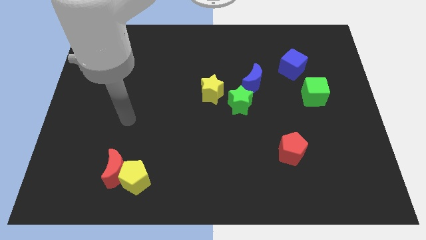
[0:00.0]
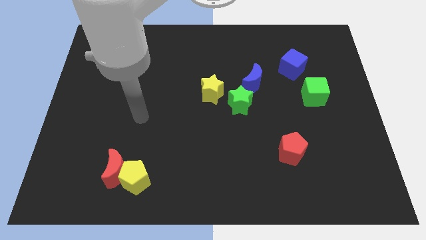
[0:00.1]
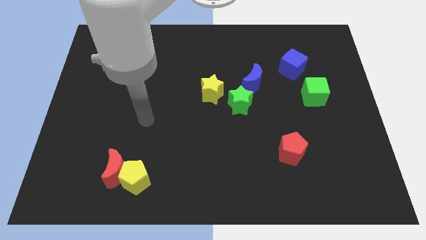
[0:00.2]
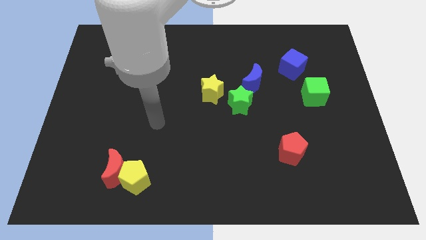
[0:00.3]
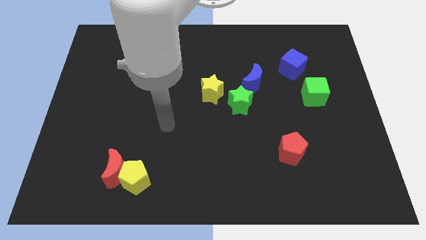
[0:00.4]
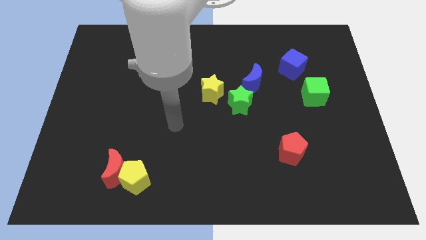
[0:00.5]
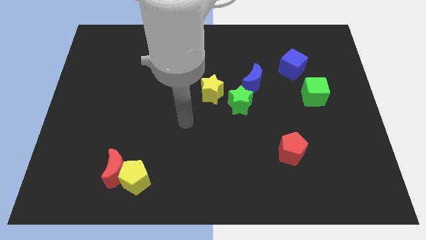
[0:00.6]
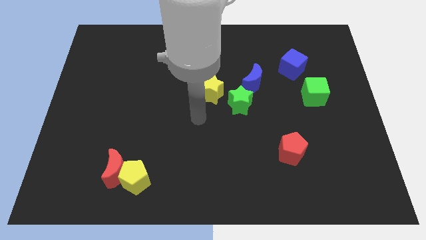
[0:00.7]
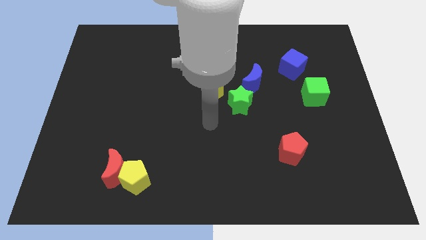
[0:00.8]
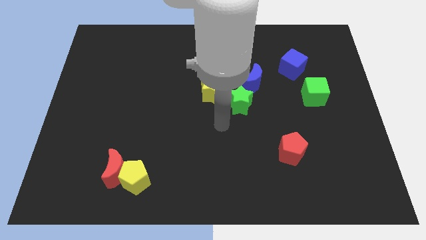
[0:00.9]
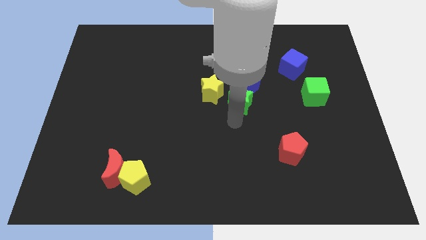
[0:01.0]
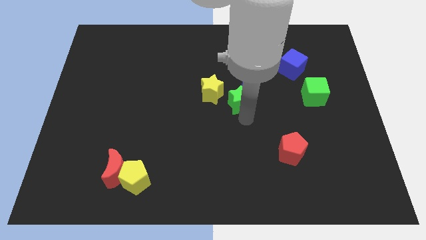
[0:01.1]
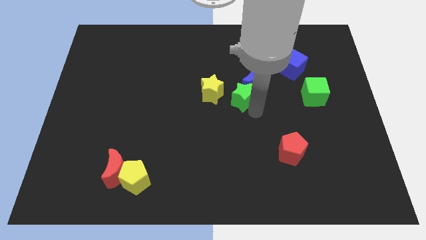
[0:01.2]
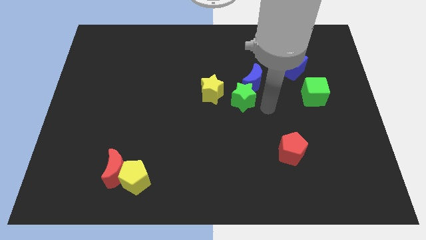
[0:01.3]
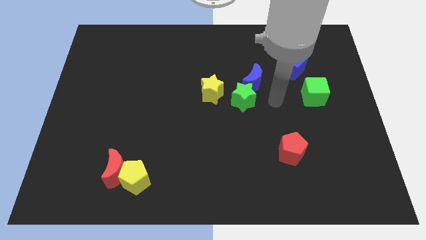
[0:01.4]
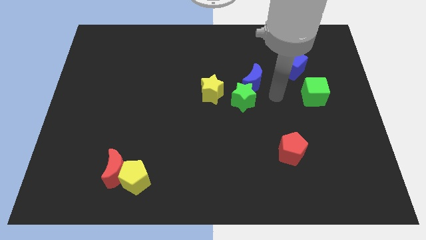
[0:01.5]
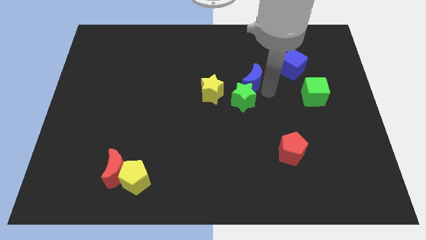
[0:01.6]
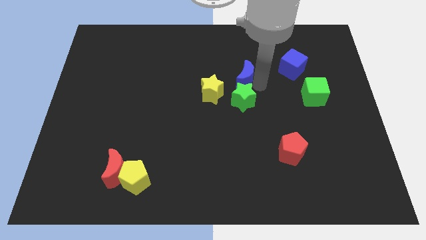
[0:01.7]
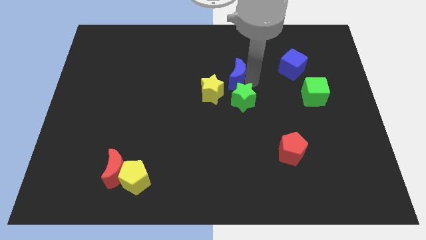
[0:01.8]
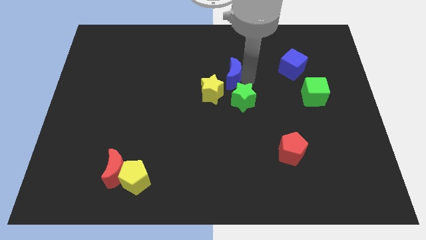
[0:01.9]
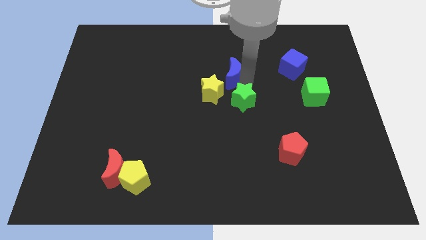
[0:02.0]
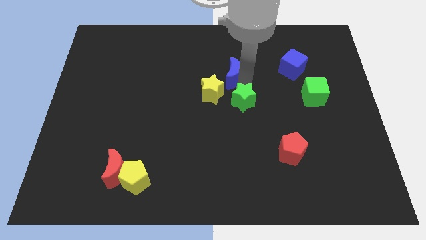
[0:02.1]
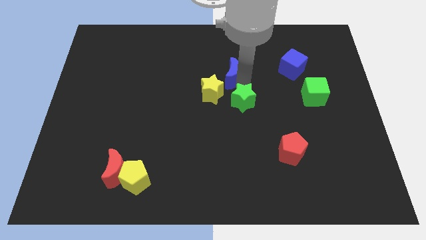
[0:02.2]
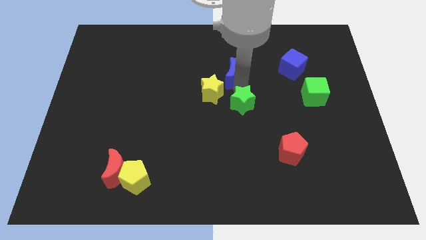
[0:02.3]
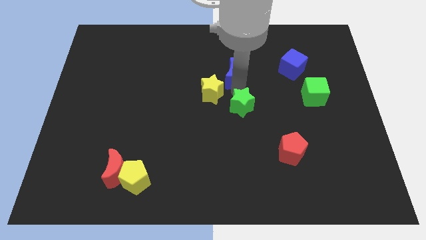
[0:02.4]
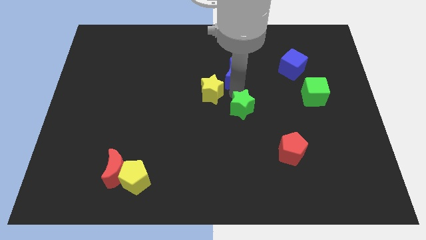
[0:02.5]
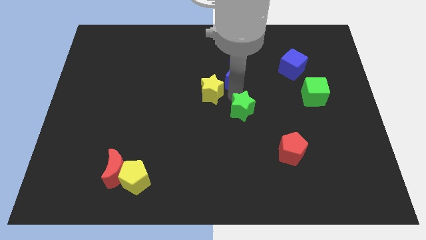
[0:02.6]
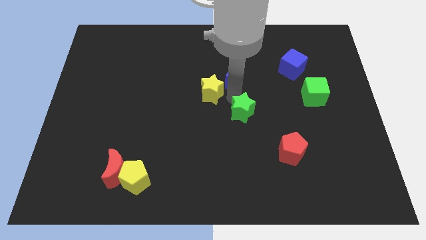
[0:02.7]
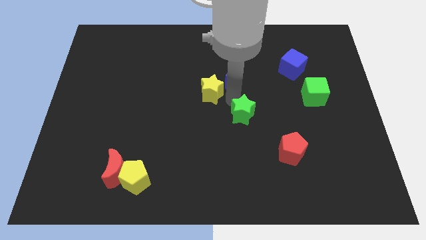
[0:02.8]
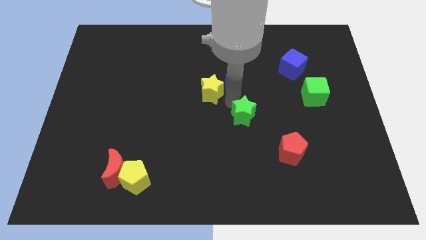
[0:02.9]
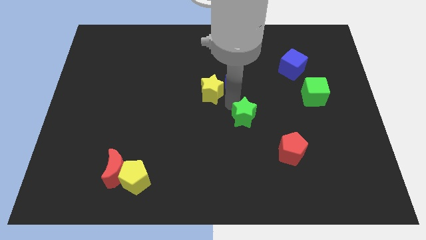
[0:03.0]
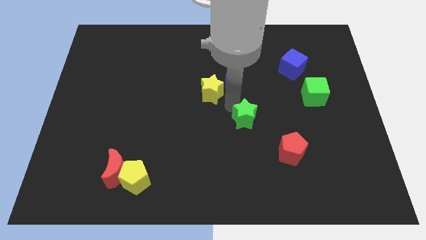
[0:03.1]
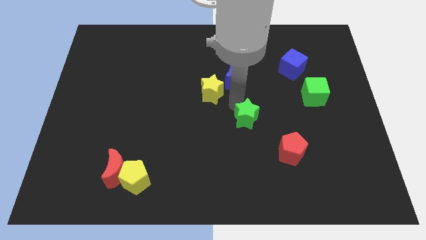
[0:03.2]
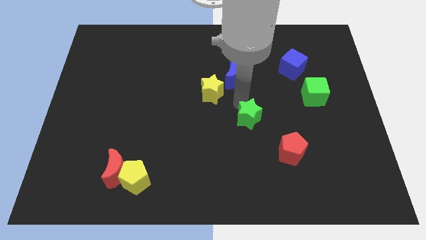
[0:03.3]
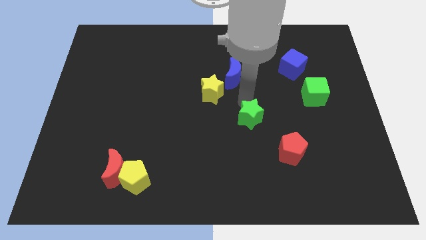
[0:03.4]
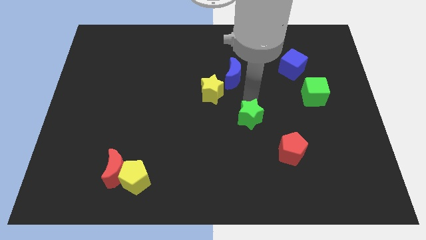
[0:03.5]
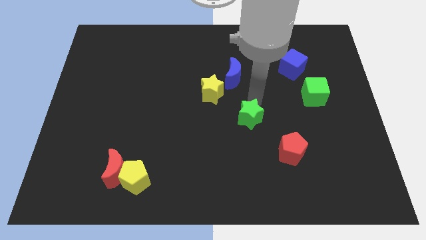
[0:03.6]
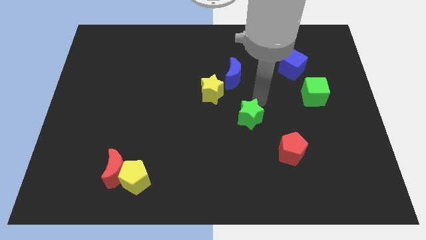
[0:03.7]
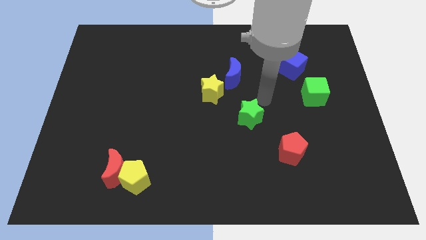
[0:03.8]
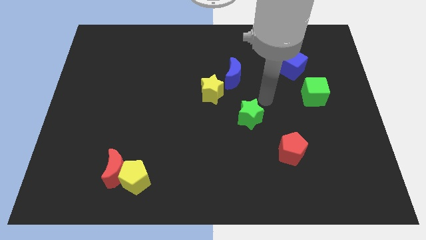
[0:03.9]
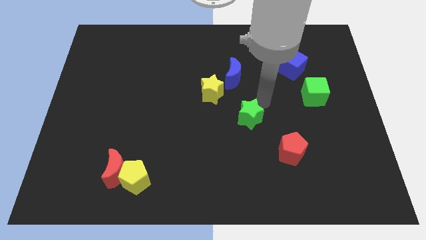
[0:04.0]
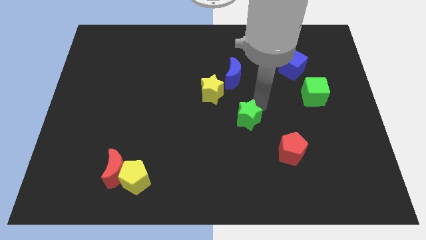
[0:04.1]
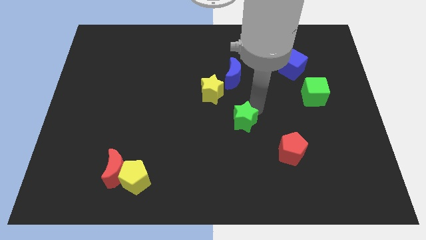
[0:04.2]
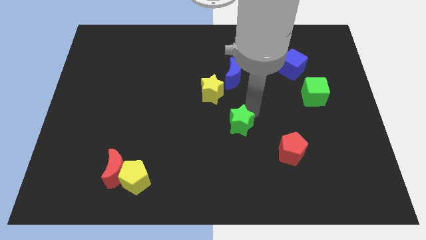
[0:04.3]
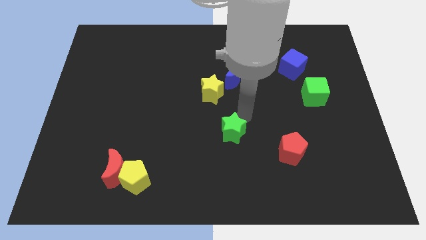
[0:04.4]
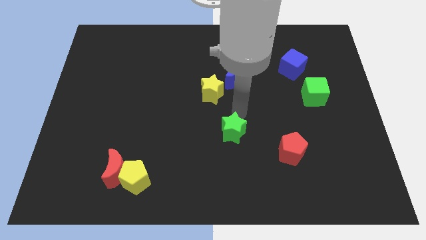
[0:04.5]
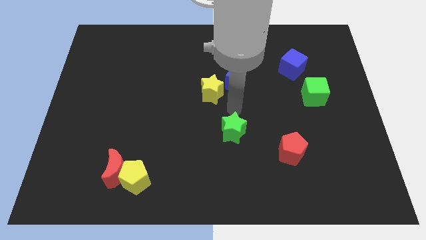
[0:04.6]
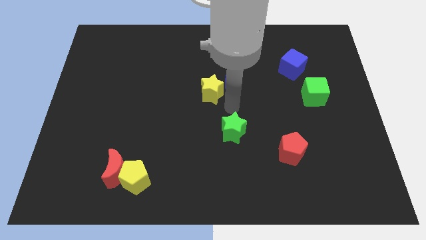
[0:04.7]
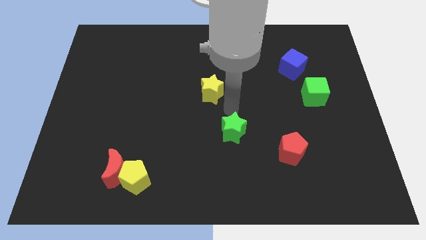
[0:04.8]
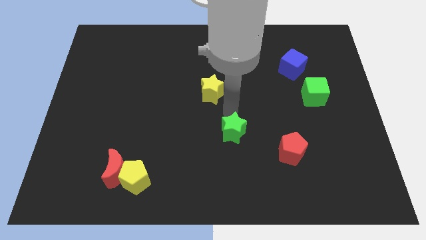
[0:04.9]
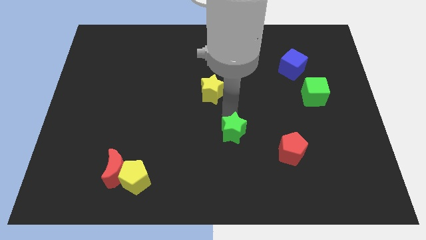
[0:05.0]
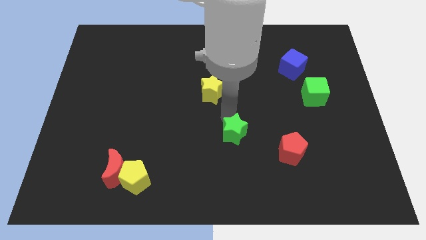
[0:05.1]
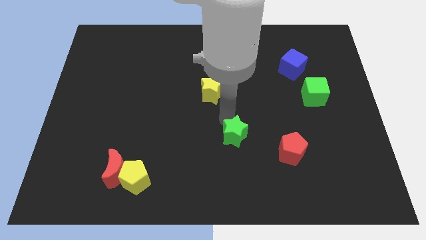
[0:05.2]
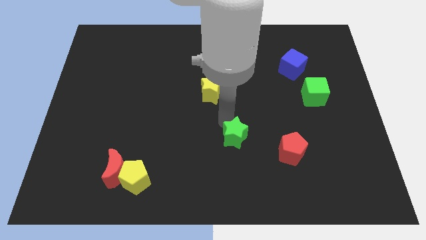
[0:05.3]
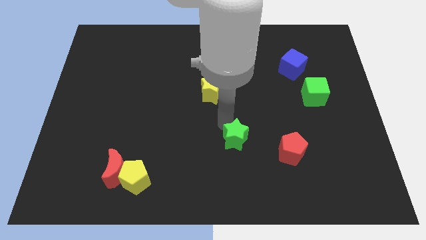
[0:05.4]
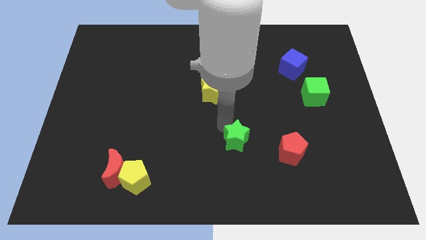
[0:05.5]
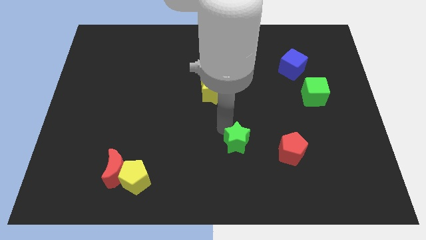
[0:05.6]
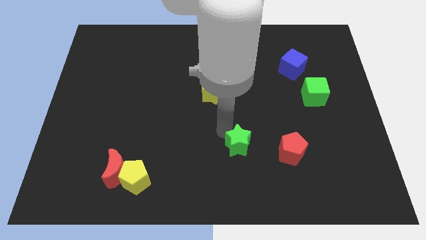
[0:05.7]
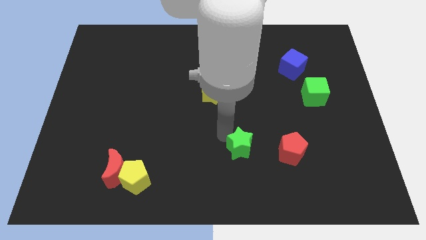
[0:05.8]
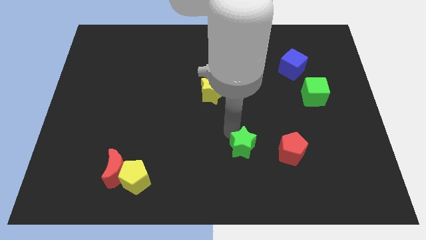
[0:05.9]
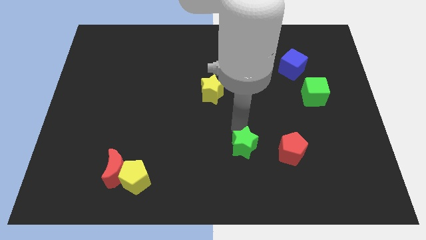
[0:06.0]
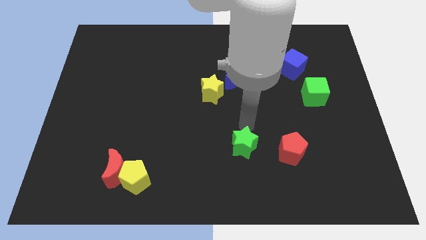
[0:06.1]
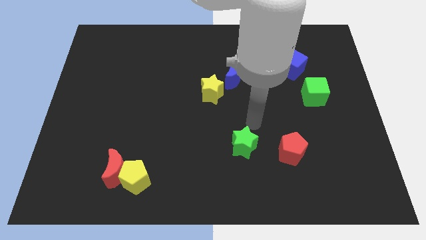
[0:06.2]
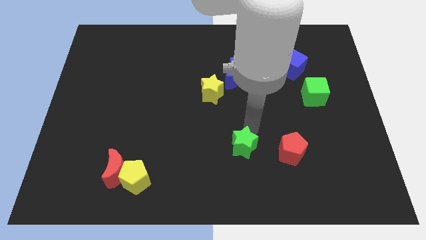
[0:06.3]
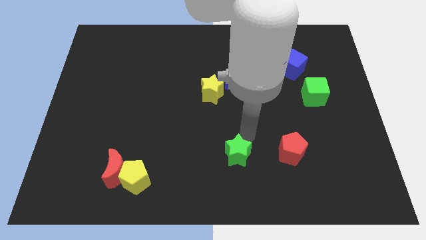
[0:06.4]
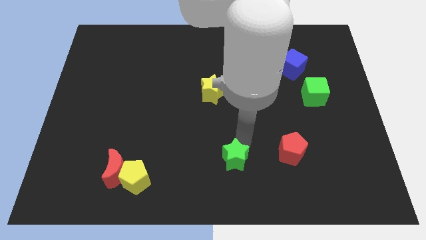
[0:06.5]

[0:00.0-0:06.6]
put the green star to the bottom side

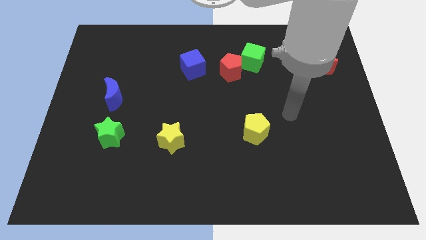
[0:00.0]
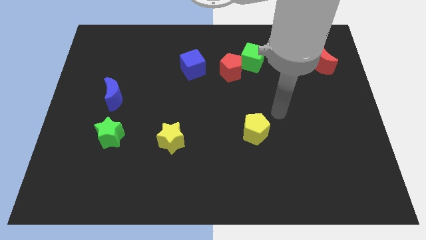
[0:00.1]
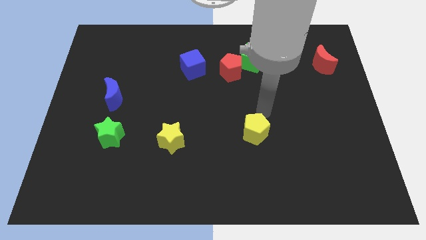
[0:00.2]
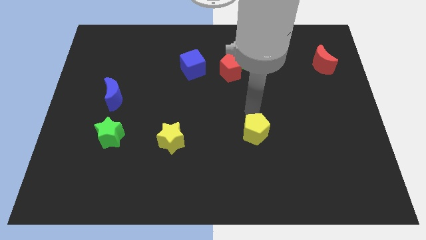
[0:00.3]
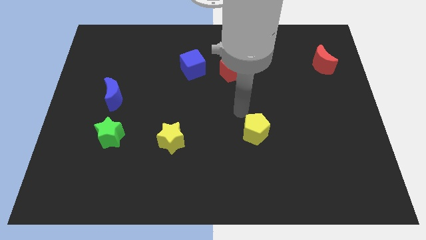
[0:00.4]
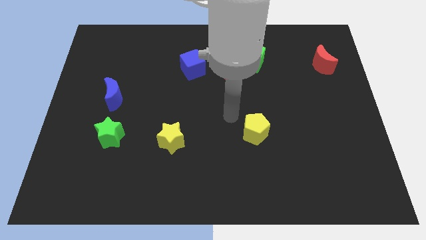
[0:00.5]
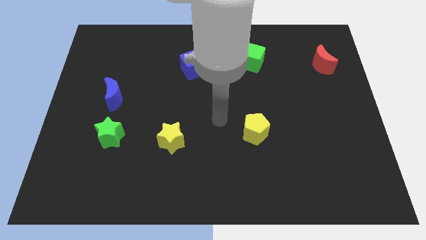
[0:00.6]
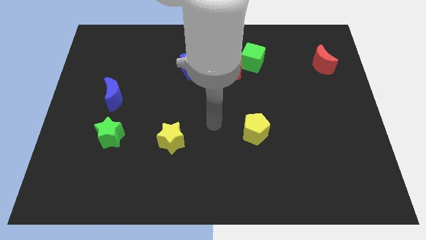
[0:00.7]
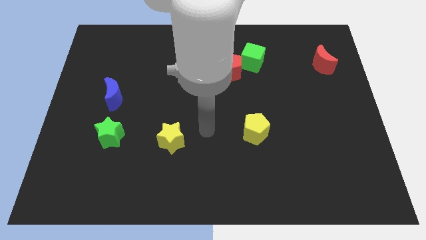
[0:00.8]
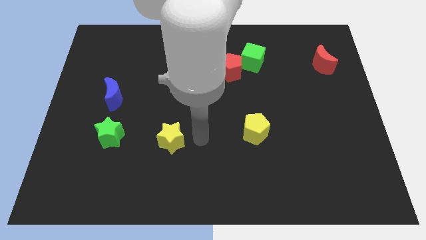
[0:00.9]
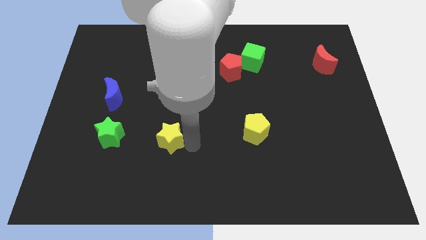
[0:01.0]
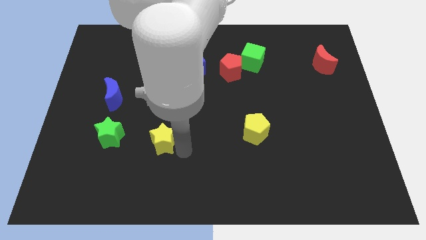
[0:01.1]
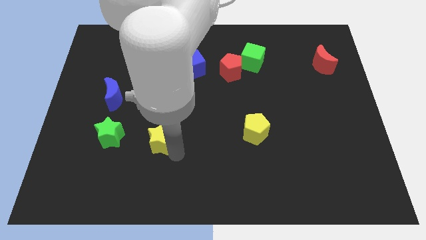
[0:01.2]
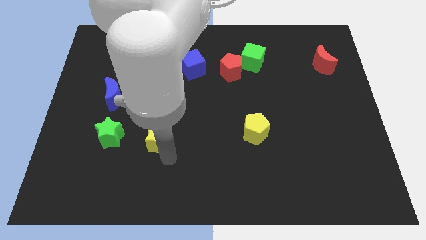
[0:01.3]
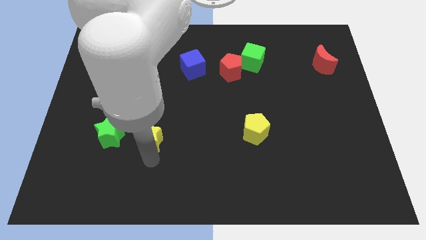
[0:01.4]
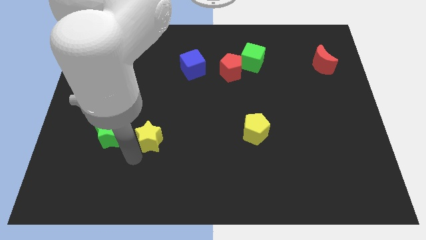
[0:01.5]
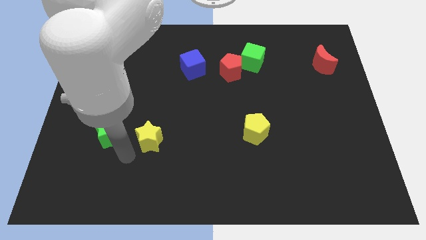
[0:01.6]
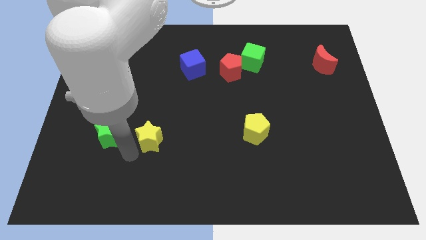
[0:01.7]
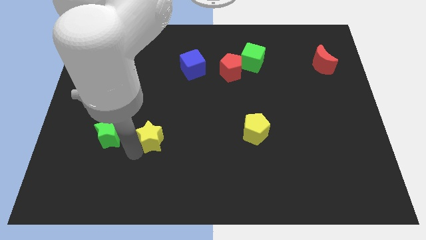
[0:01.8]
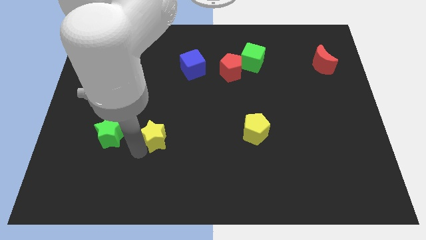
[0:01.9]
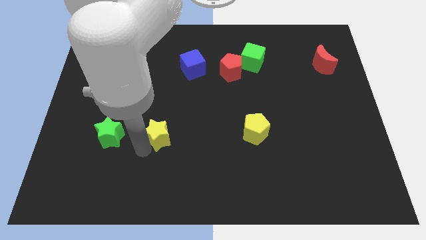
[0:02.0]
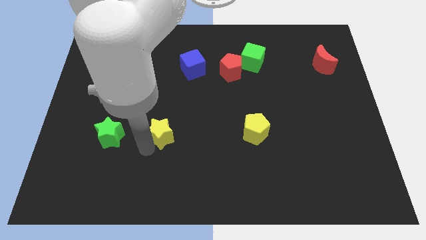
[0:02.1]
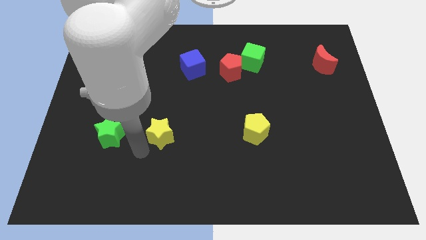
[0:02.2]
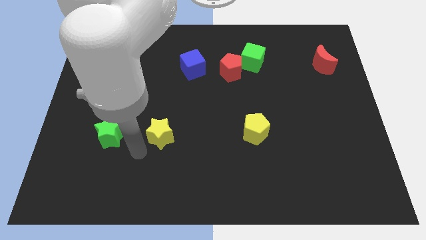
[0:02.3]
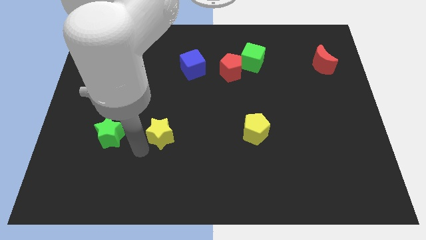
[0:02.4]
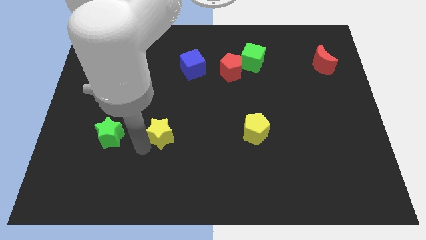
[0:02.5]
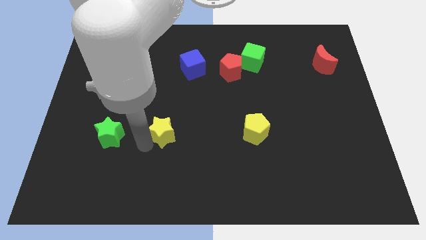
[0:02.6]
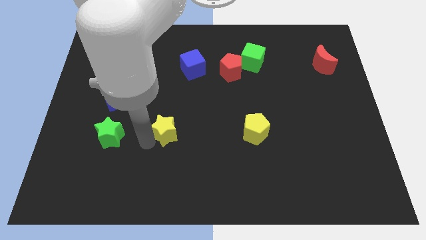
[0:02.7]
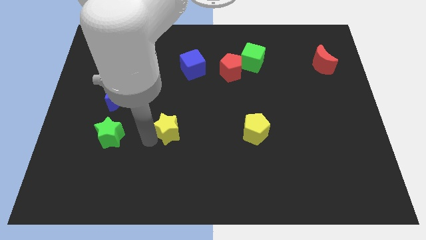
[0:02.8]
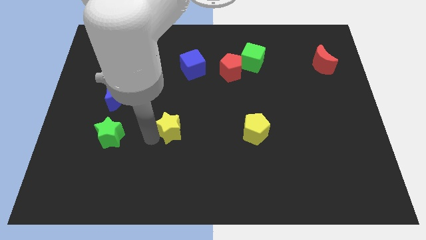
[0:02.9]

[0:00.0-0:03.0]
move the yellow star to the center
